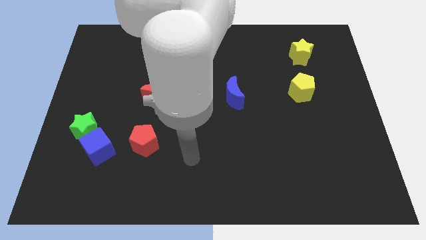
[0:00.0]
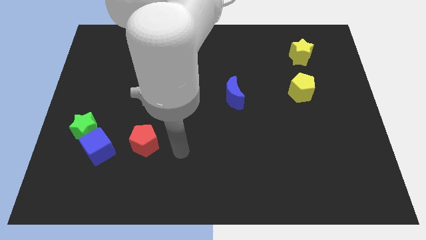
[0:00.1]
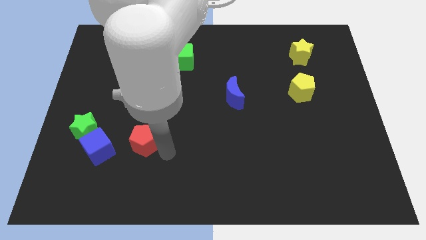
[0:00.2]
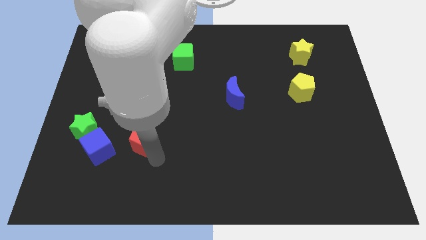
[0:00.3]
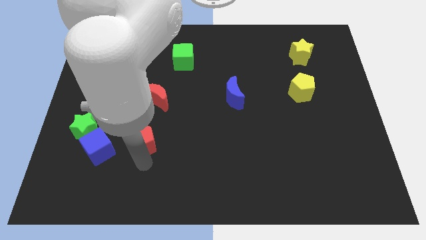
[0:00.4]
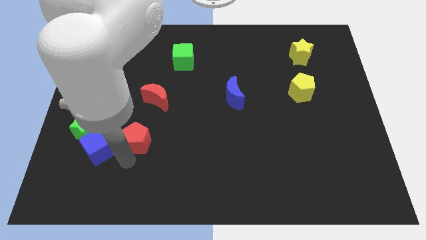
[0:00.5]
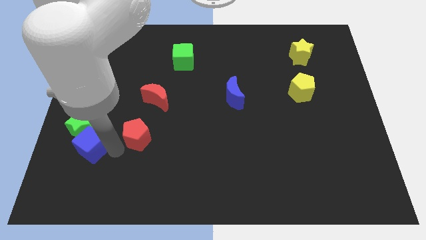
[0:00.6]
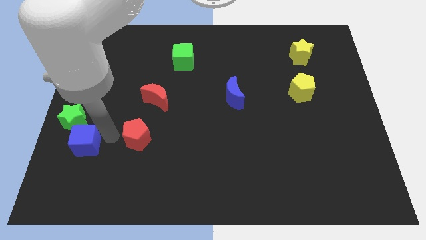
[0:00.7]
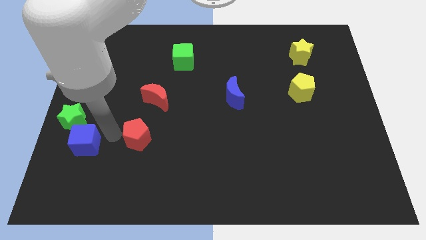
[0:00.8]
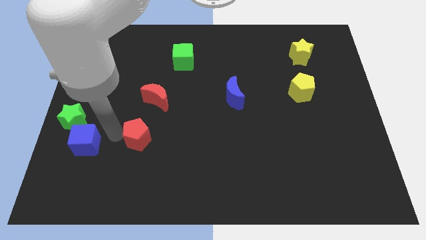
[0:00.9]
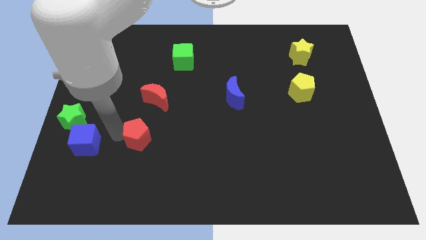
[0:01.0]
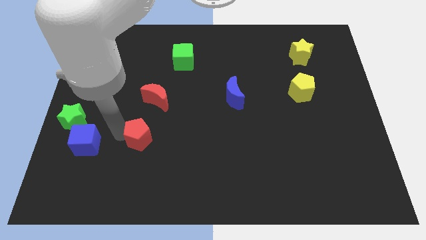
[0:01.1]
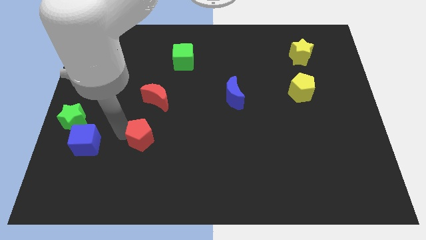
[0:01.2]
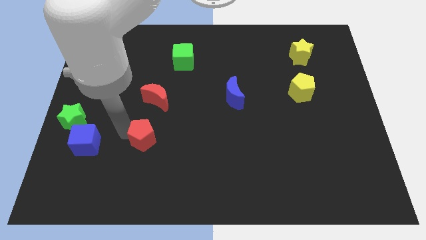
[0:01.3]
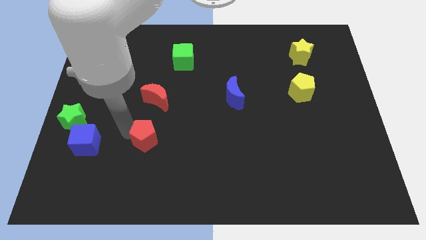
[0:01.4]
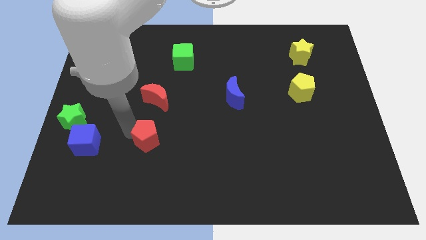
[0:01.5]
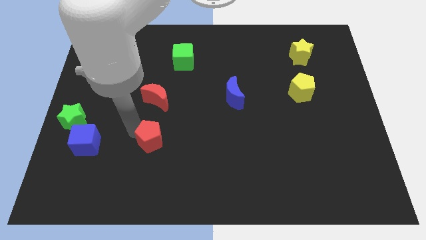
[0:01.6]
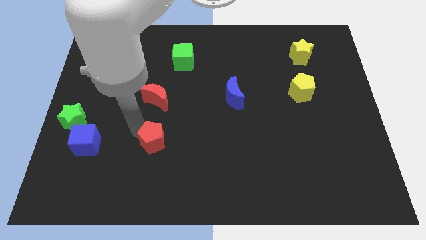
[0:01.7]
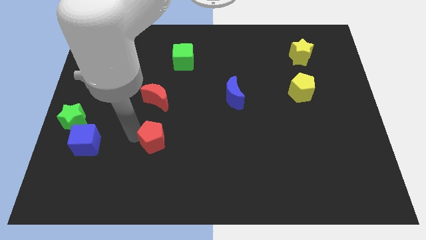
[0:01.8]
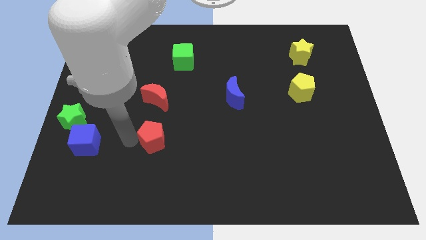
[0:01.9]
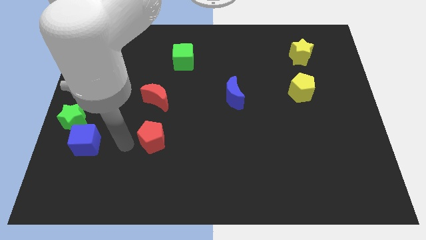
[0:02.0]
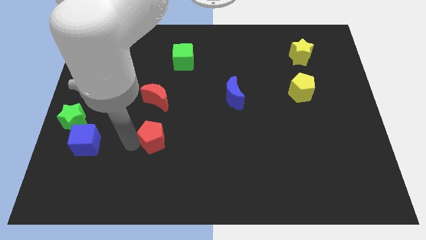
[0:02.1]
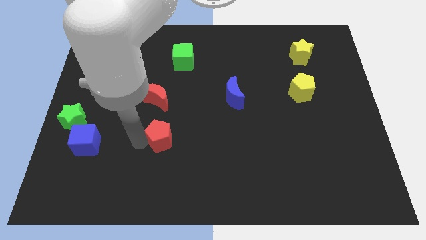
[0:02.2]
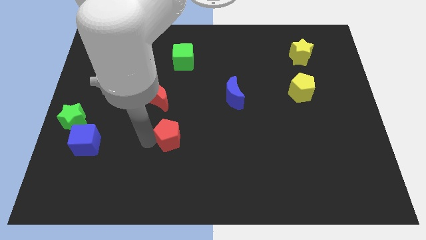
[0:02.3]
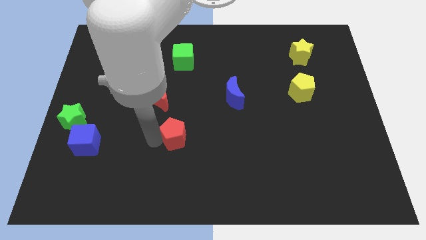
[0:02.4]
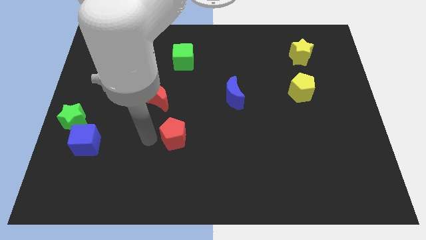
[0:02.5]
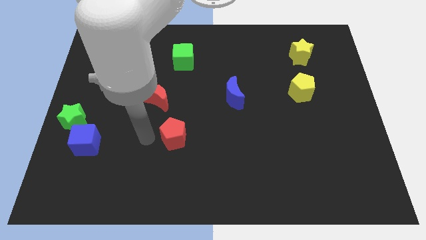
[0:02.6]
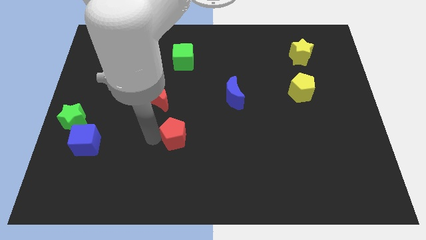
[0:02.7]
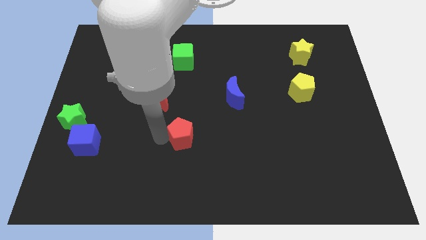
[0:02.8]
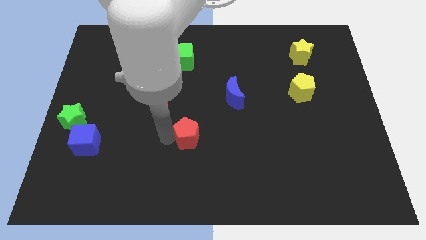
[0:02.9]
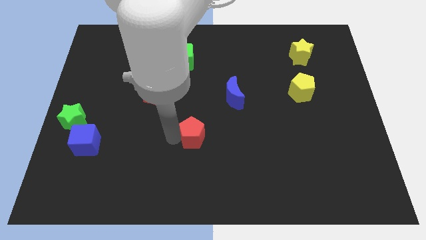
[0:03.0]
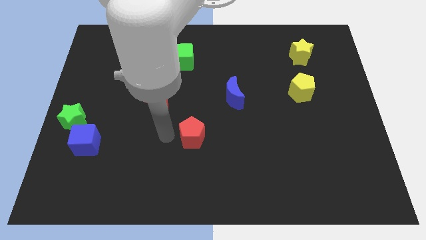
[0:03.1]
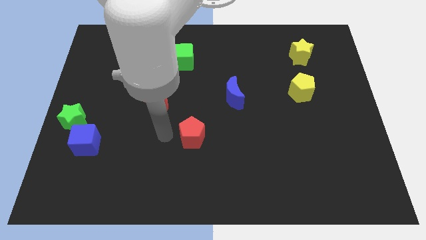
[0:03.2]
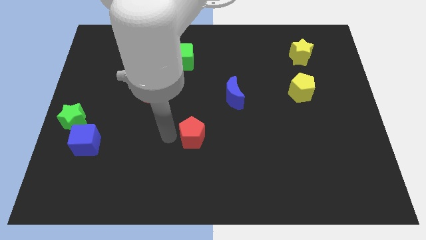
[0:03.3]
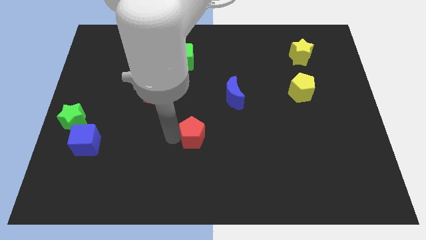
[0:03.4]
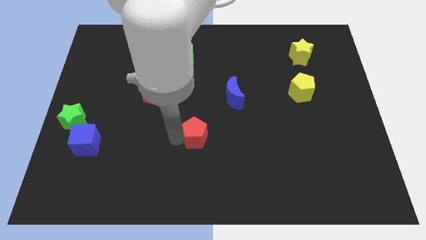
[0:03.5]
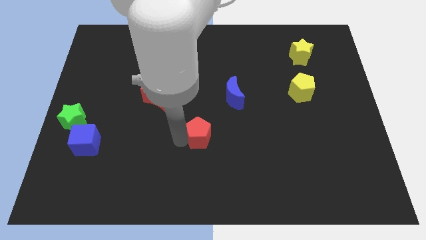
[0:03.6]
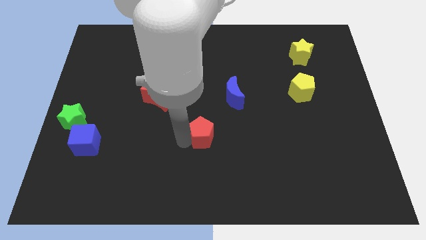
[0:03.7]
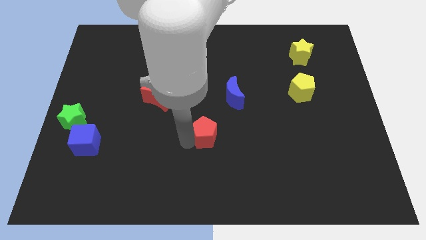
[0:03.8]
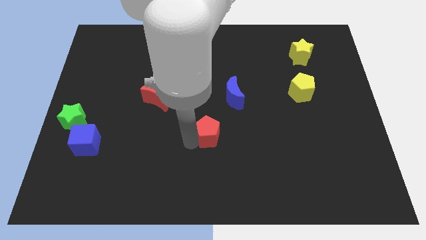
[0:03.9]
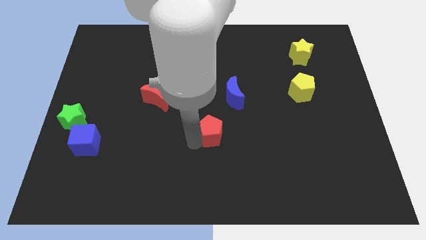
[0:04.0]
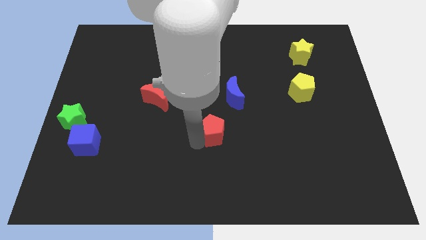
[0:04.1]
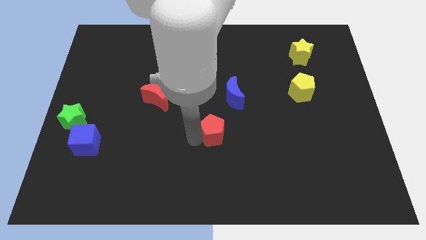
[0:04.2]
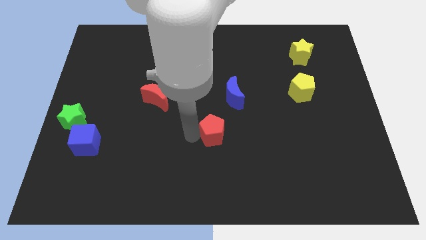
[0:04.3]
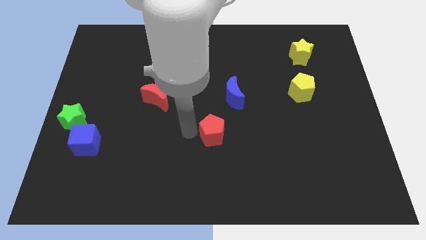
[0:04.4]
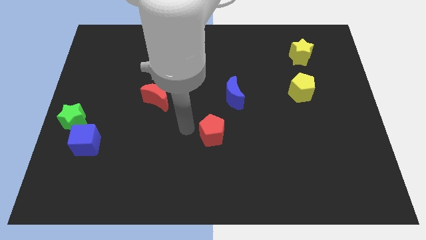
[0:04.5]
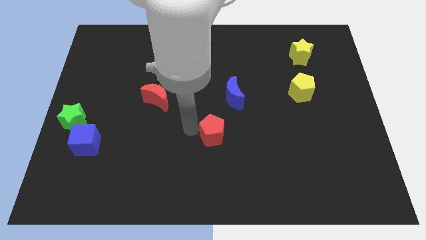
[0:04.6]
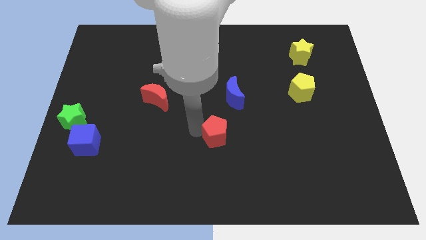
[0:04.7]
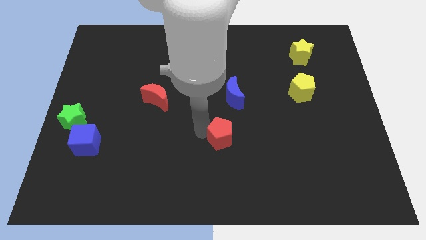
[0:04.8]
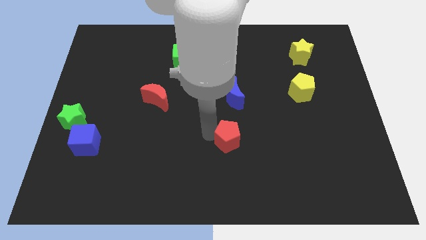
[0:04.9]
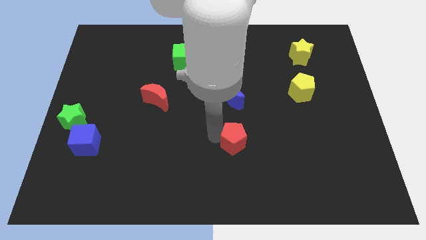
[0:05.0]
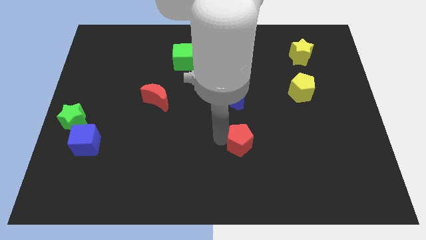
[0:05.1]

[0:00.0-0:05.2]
move the red pentagon to the right

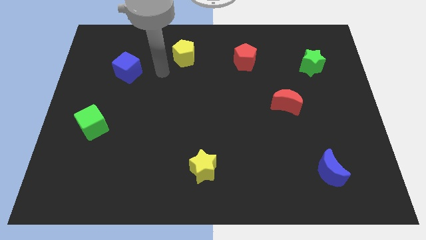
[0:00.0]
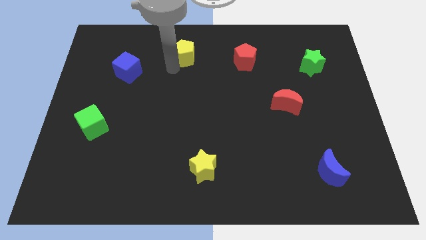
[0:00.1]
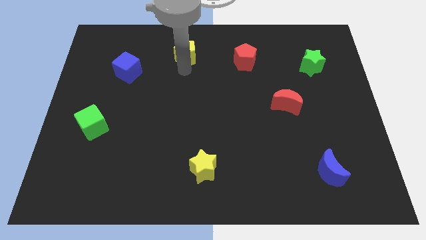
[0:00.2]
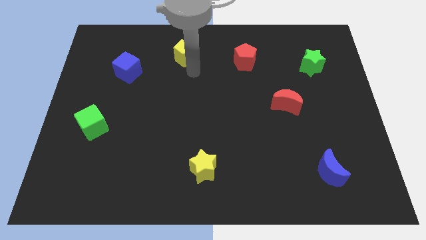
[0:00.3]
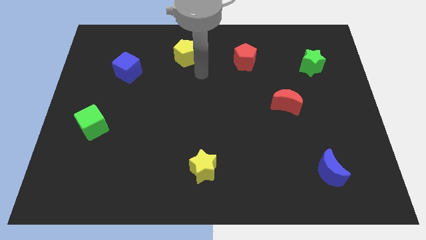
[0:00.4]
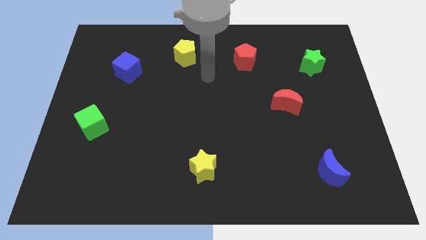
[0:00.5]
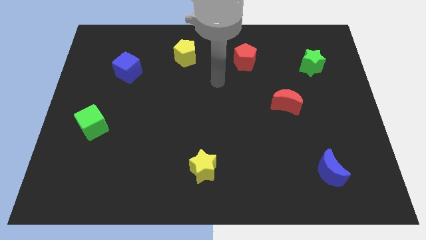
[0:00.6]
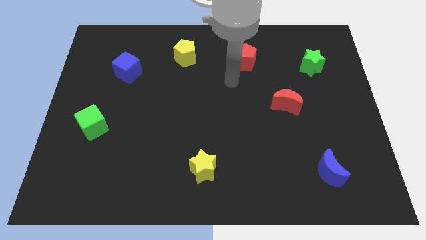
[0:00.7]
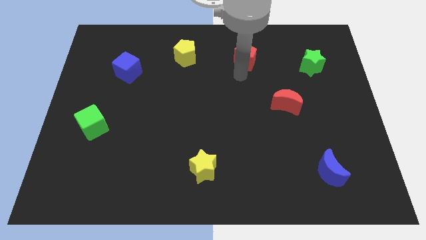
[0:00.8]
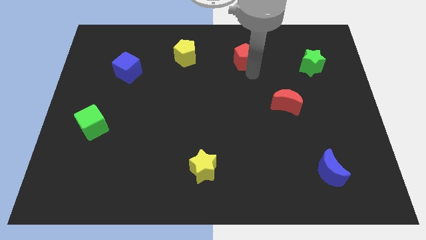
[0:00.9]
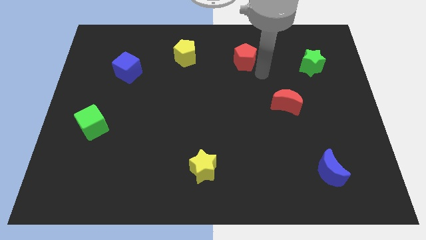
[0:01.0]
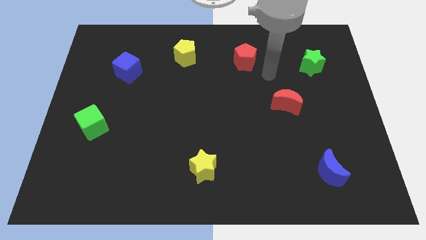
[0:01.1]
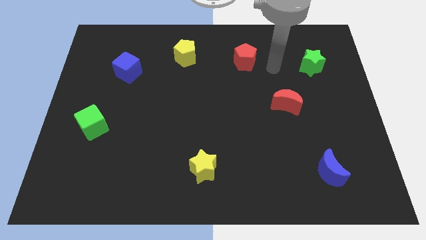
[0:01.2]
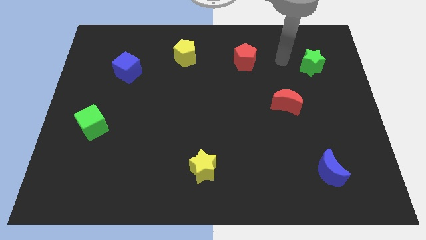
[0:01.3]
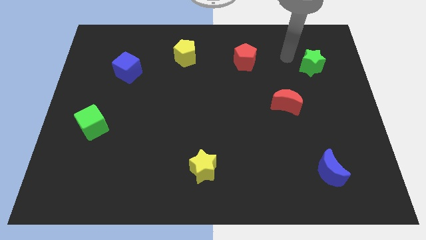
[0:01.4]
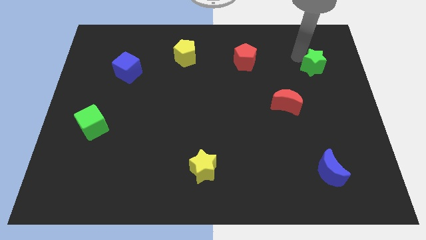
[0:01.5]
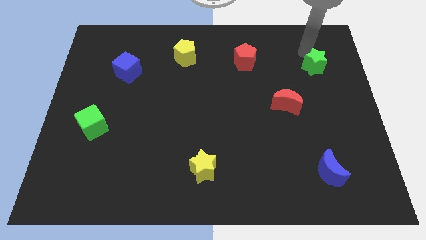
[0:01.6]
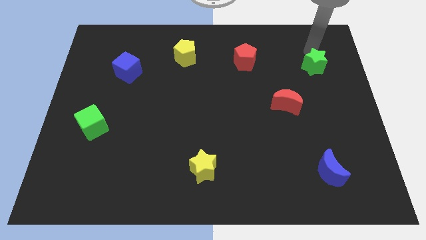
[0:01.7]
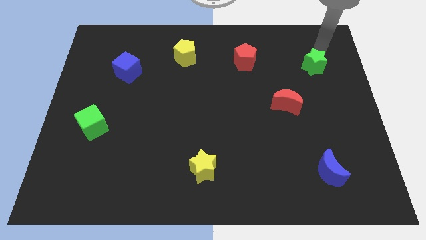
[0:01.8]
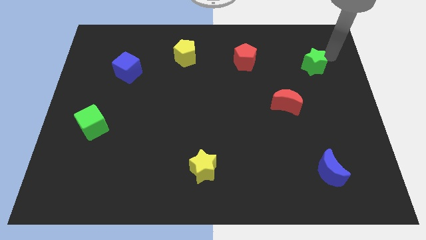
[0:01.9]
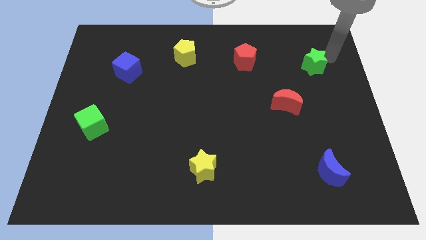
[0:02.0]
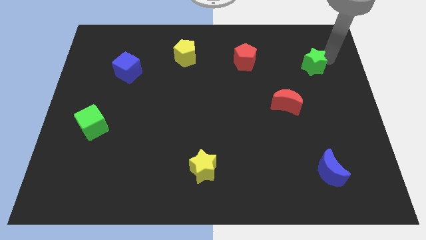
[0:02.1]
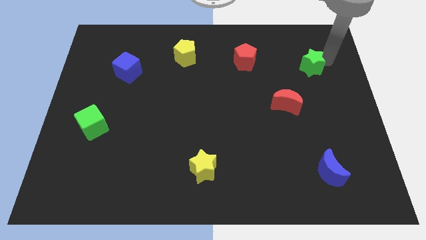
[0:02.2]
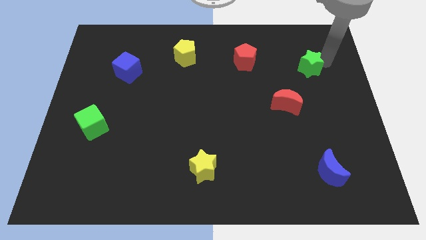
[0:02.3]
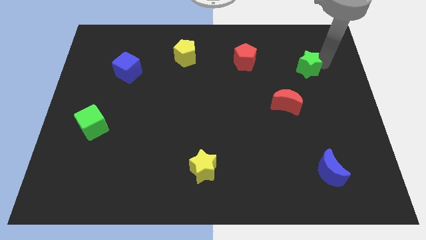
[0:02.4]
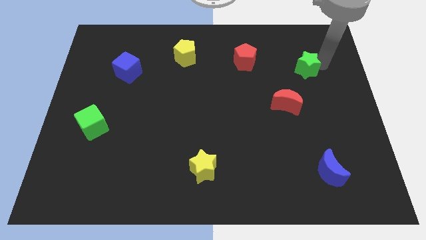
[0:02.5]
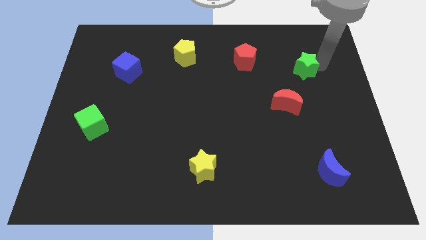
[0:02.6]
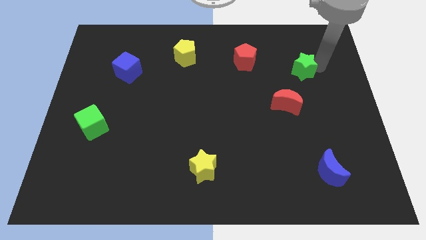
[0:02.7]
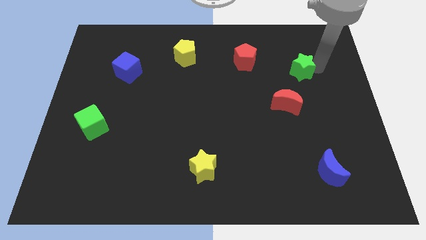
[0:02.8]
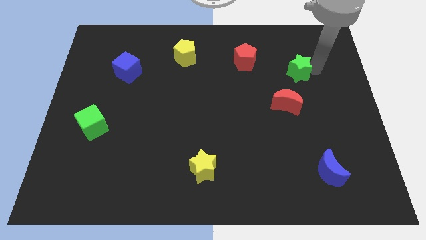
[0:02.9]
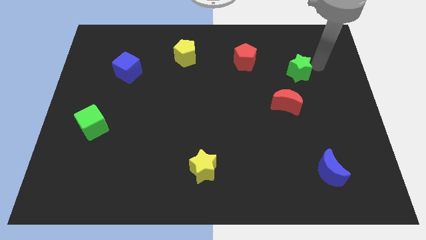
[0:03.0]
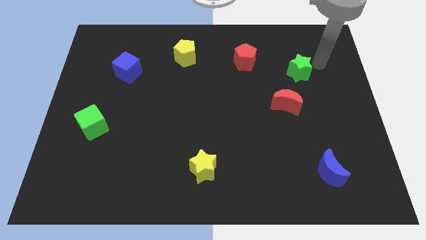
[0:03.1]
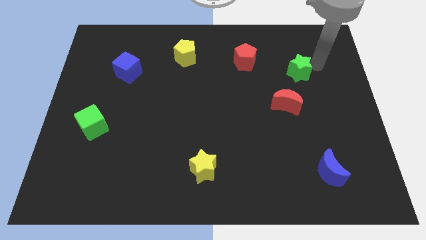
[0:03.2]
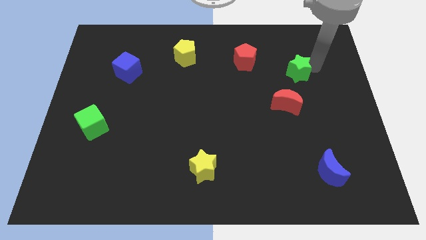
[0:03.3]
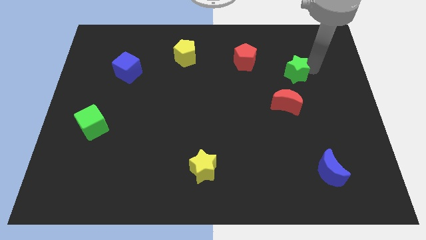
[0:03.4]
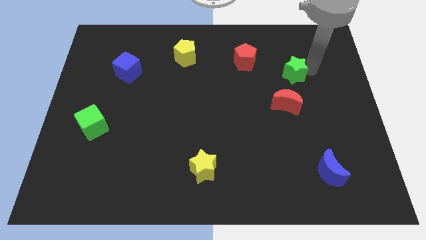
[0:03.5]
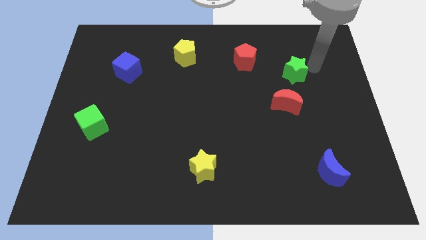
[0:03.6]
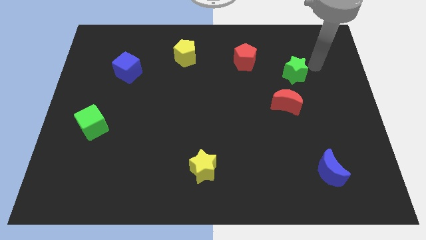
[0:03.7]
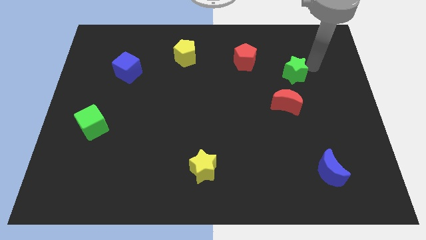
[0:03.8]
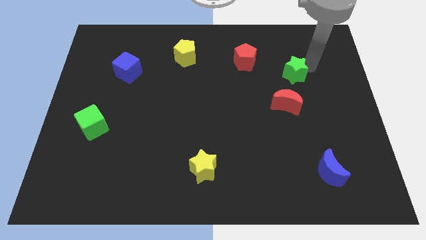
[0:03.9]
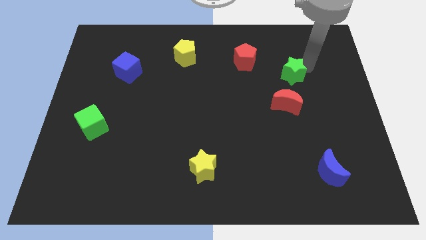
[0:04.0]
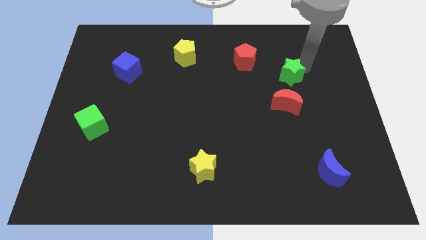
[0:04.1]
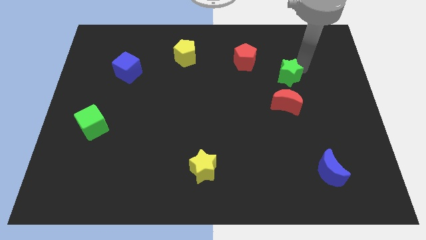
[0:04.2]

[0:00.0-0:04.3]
push the green star downwards and to the left diagonally slightly
